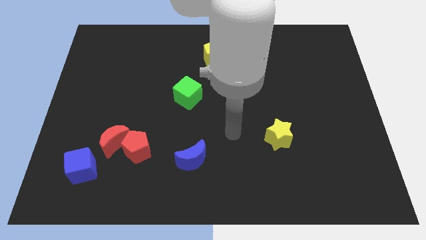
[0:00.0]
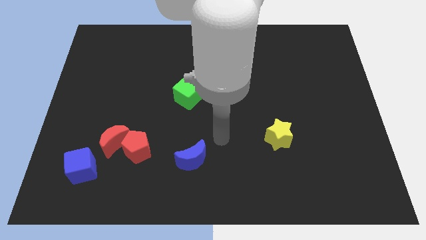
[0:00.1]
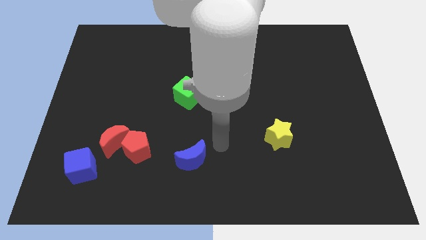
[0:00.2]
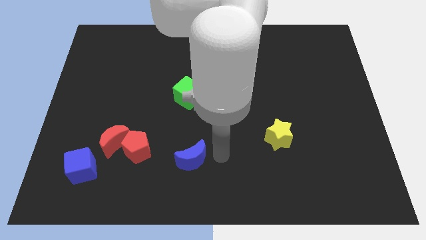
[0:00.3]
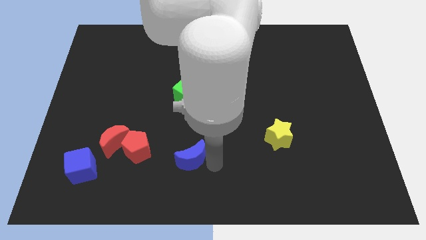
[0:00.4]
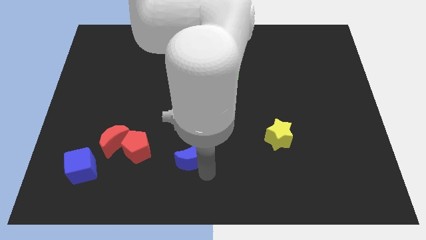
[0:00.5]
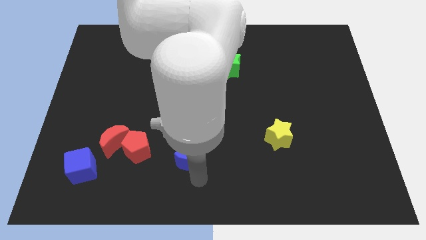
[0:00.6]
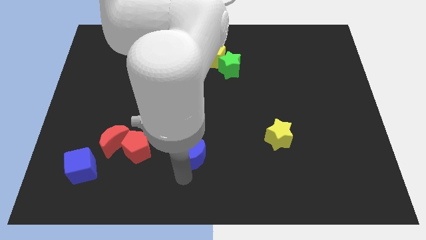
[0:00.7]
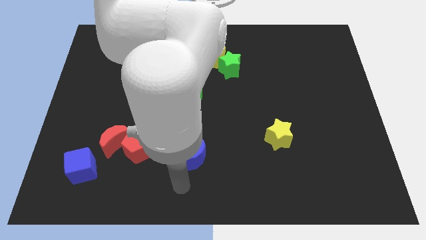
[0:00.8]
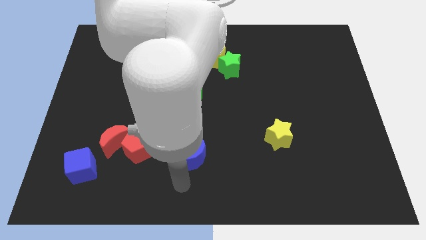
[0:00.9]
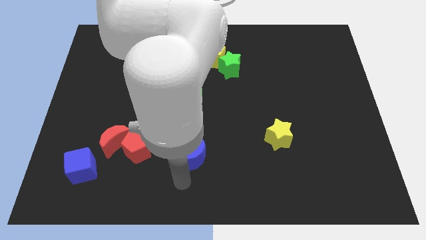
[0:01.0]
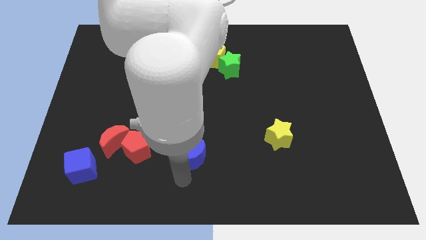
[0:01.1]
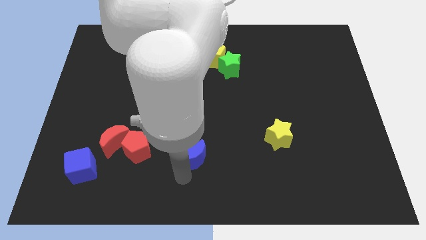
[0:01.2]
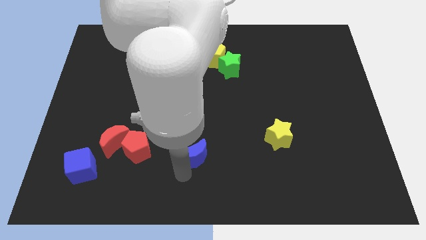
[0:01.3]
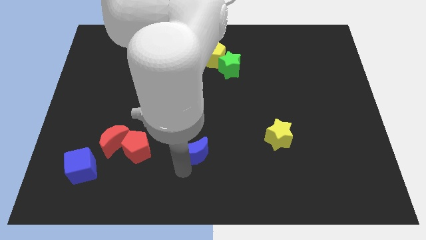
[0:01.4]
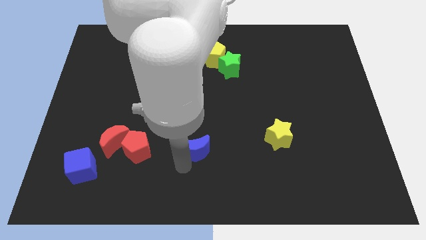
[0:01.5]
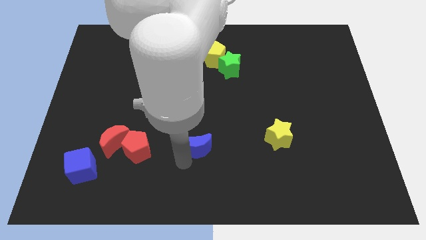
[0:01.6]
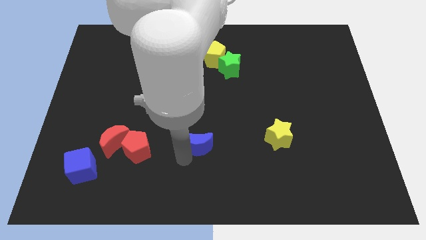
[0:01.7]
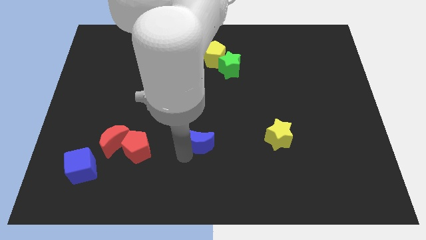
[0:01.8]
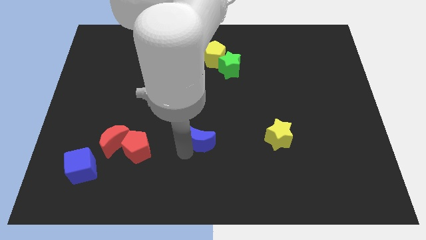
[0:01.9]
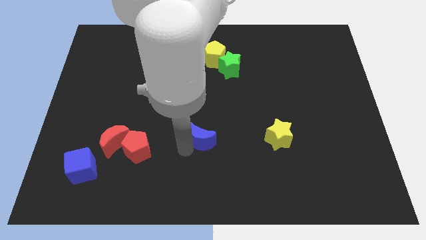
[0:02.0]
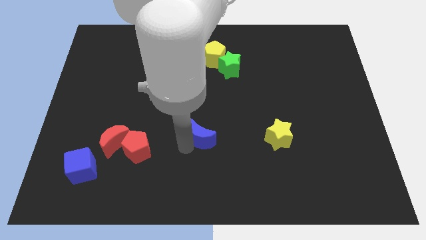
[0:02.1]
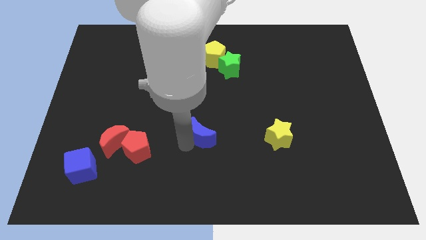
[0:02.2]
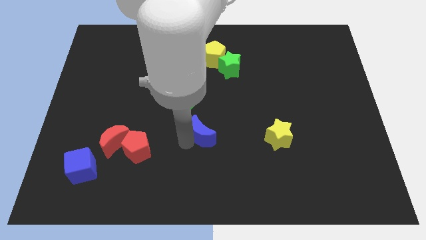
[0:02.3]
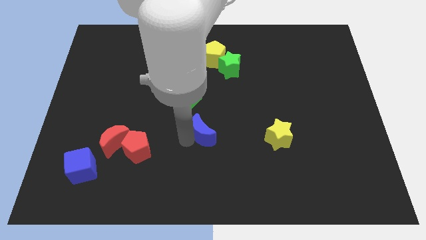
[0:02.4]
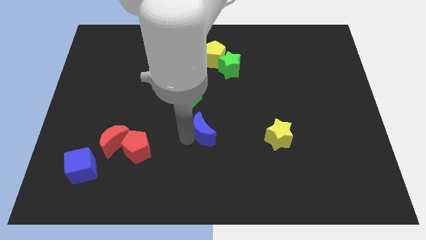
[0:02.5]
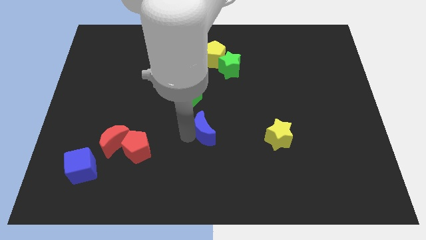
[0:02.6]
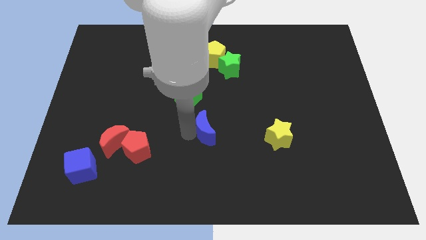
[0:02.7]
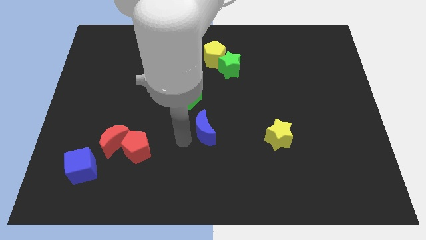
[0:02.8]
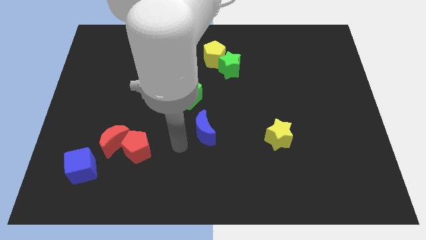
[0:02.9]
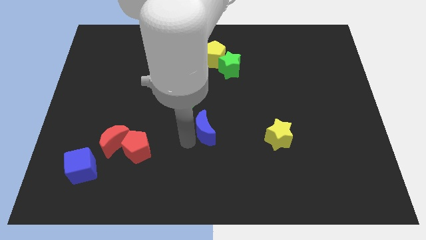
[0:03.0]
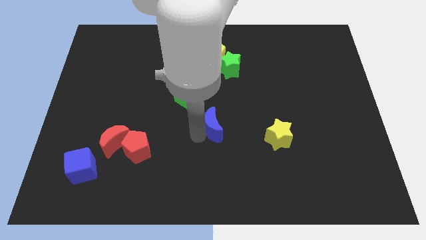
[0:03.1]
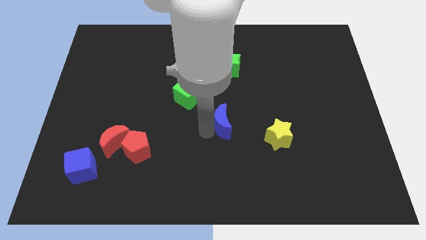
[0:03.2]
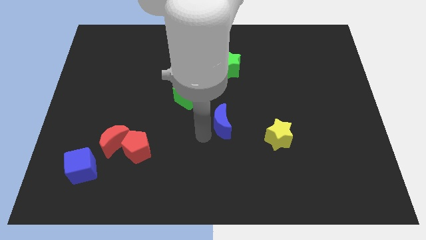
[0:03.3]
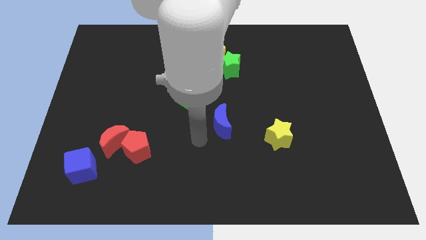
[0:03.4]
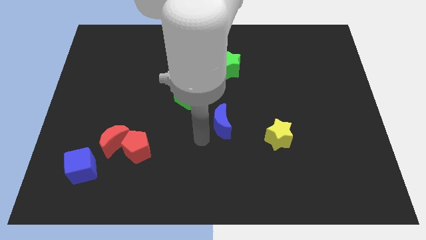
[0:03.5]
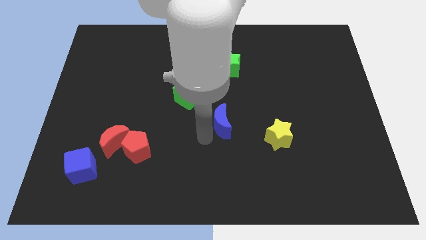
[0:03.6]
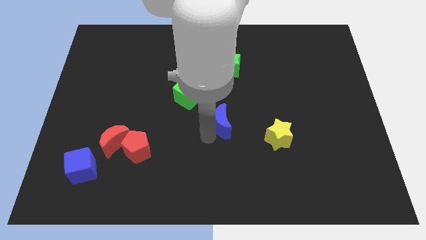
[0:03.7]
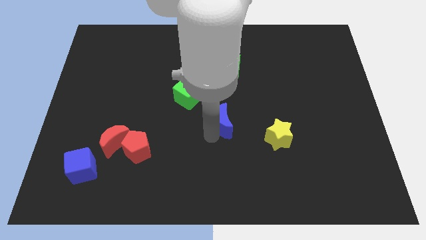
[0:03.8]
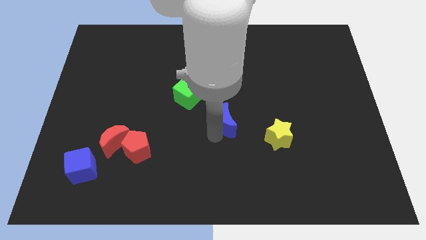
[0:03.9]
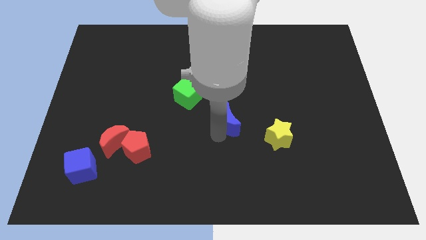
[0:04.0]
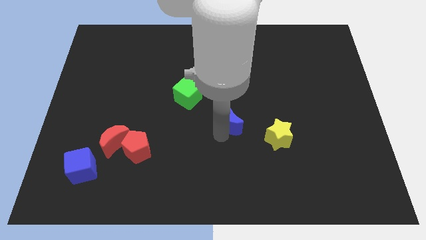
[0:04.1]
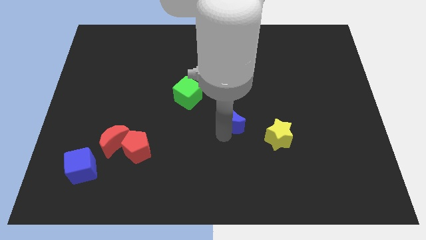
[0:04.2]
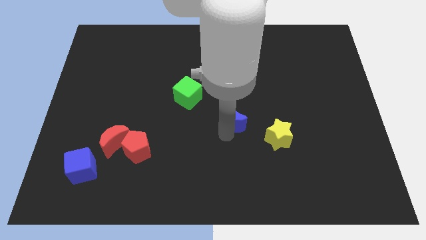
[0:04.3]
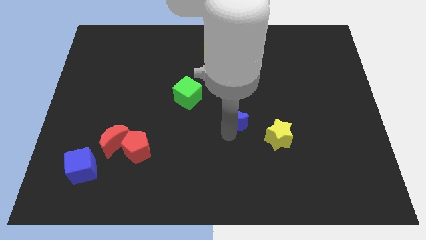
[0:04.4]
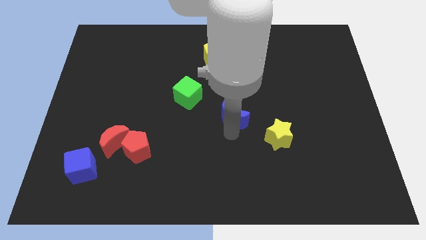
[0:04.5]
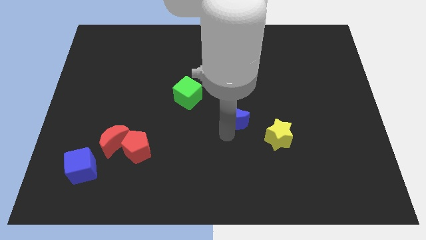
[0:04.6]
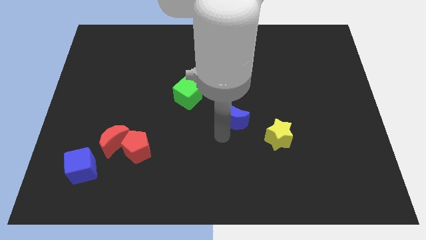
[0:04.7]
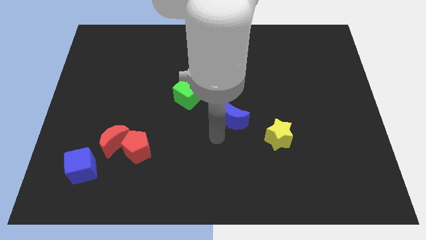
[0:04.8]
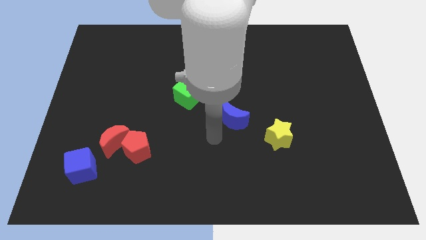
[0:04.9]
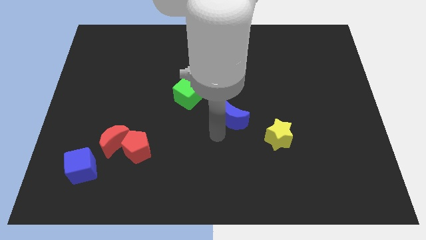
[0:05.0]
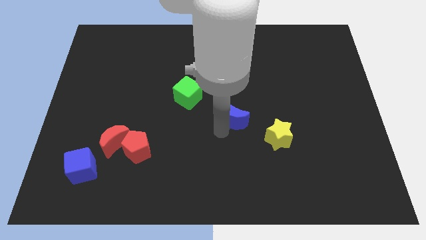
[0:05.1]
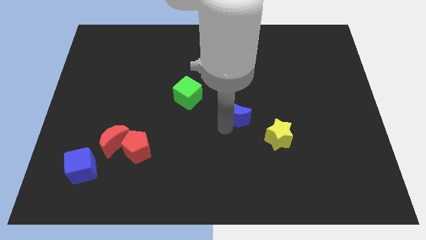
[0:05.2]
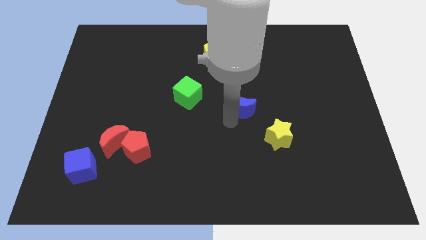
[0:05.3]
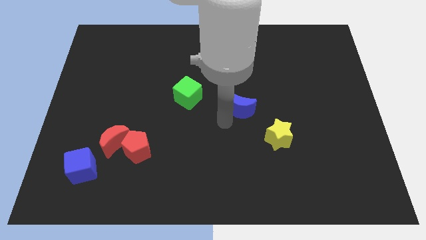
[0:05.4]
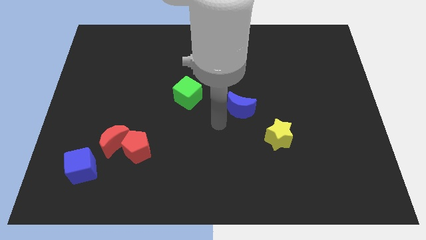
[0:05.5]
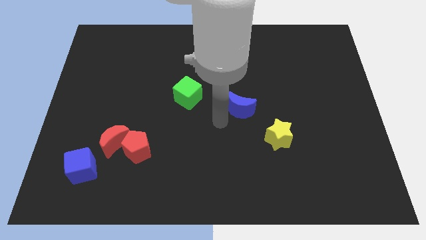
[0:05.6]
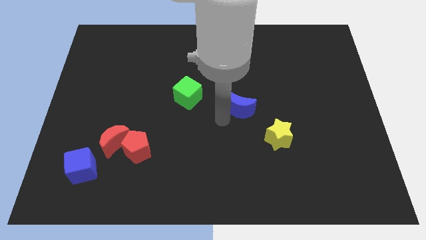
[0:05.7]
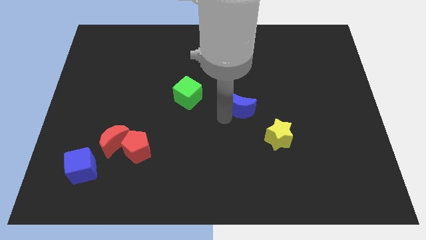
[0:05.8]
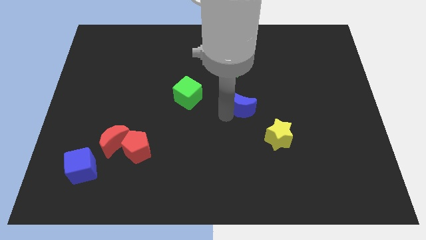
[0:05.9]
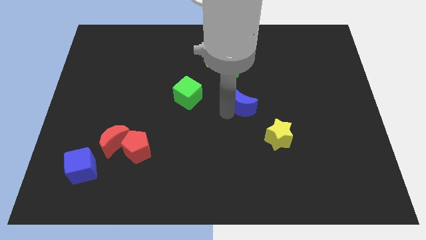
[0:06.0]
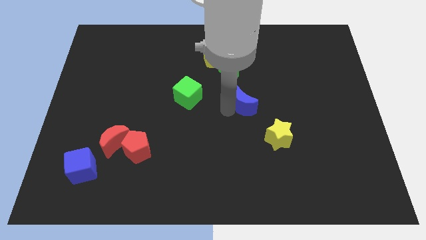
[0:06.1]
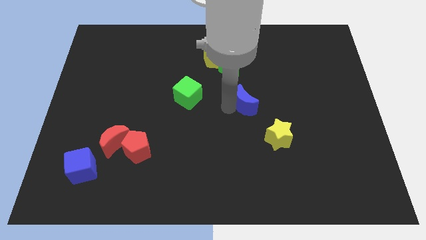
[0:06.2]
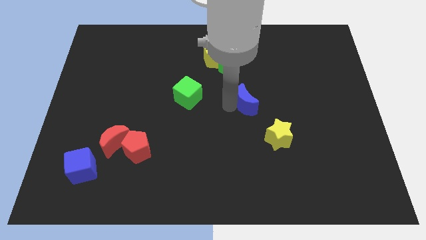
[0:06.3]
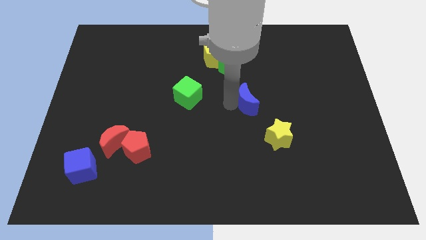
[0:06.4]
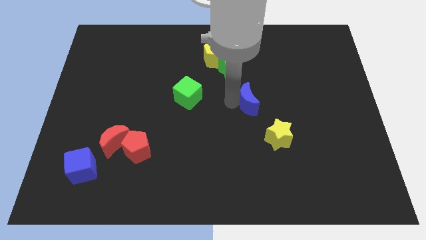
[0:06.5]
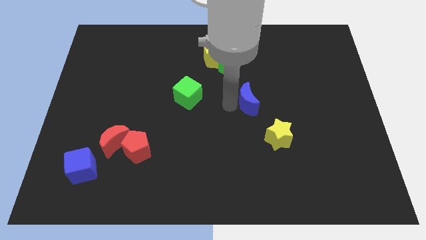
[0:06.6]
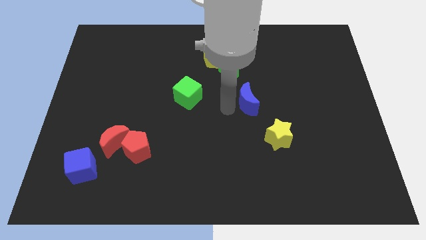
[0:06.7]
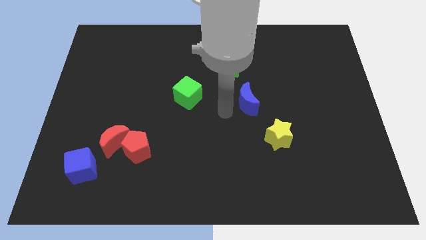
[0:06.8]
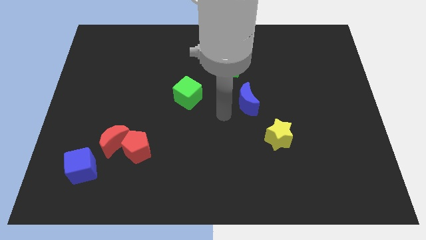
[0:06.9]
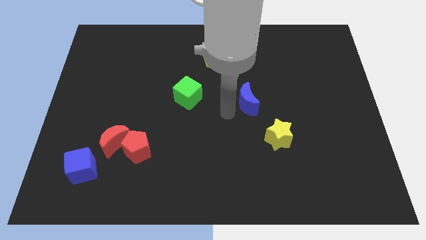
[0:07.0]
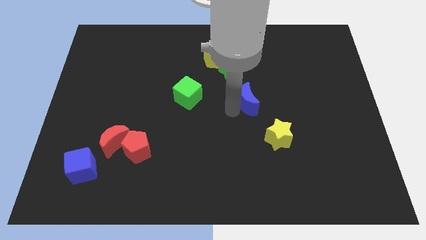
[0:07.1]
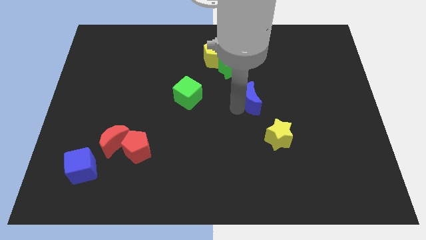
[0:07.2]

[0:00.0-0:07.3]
slide the blue moon upwards and right

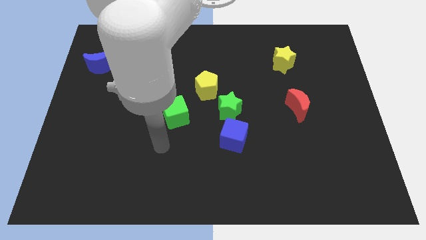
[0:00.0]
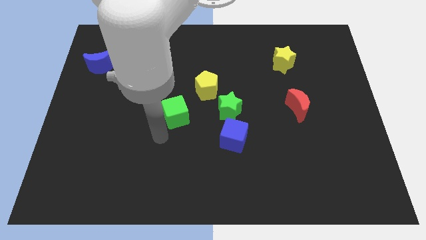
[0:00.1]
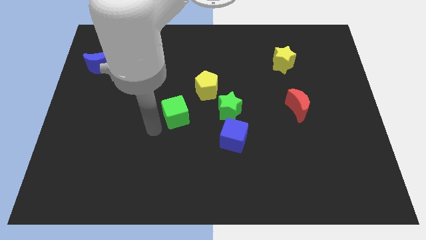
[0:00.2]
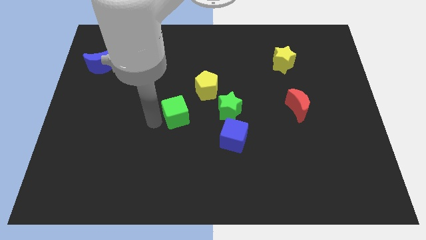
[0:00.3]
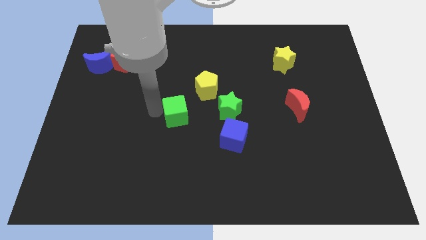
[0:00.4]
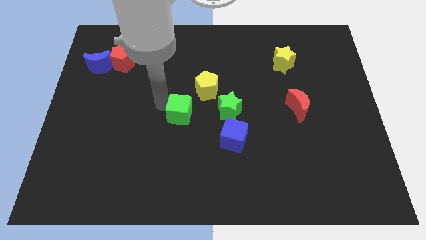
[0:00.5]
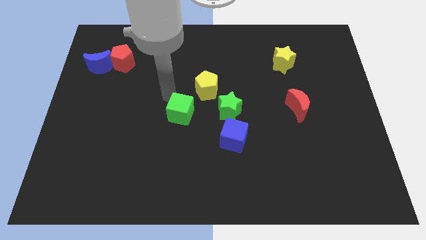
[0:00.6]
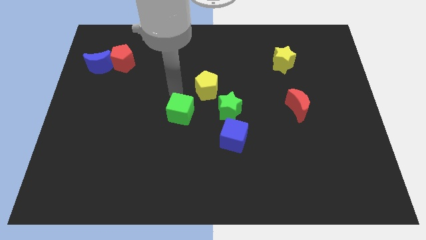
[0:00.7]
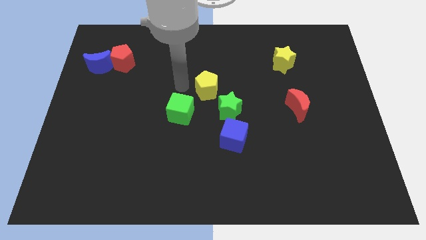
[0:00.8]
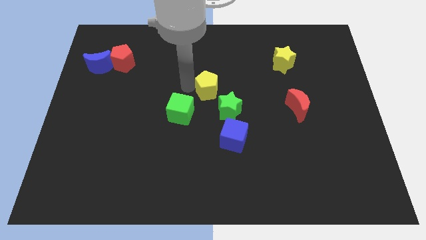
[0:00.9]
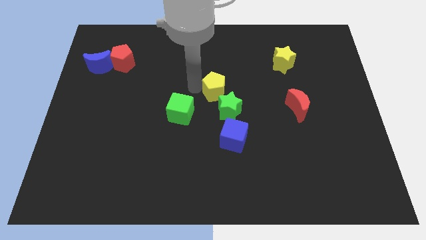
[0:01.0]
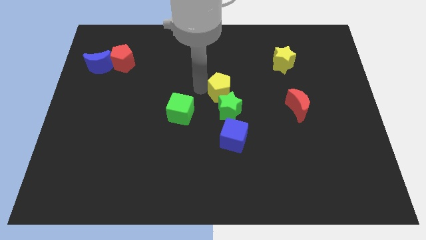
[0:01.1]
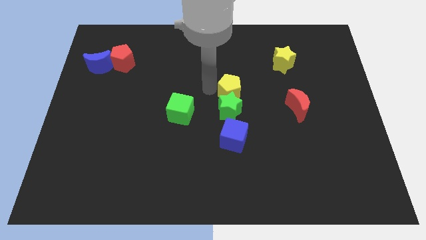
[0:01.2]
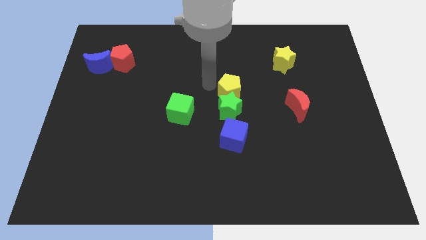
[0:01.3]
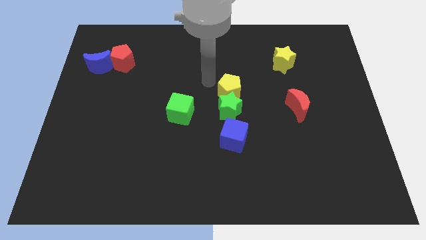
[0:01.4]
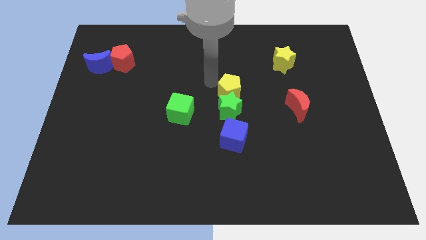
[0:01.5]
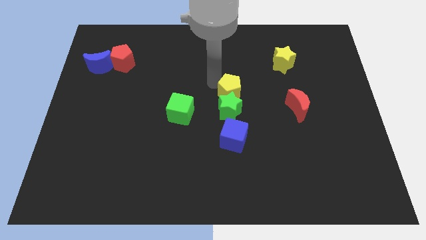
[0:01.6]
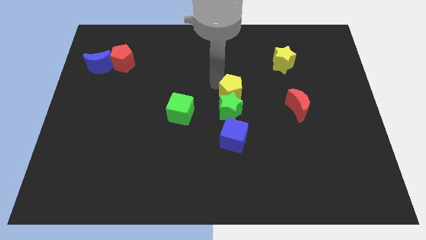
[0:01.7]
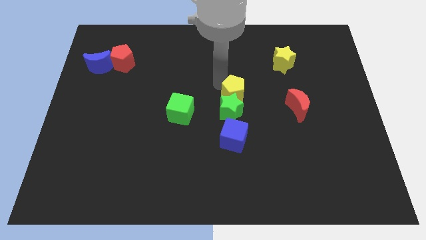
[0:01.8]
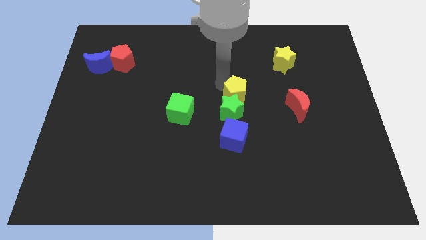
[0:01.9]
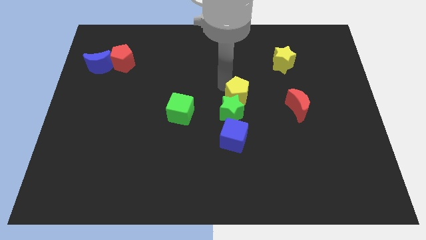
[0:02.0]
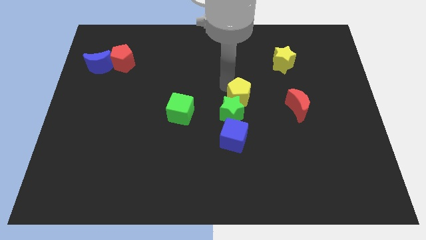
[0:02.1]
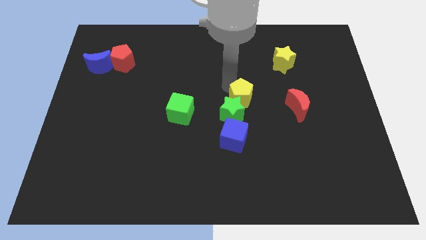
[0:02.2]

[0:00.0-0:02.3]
slightly move the yellow pentagon downwards and then right
